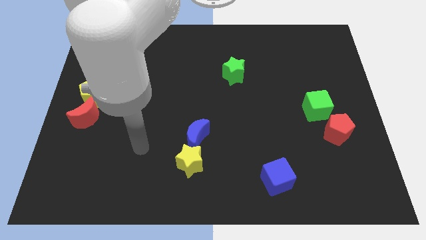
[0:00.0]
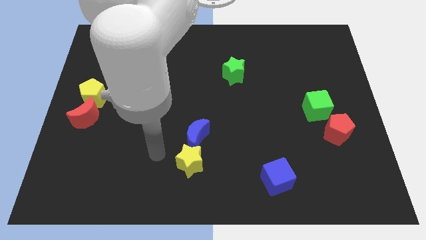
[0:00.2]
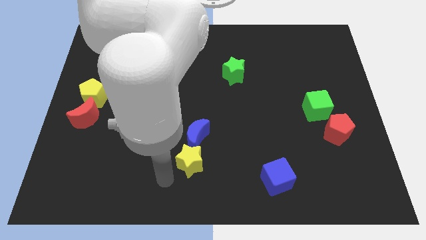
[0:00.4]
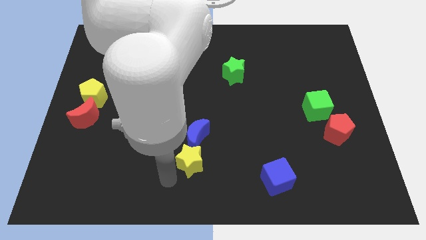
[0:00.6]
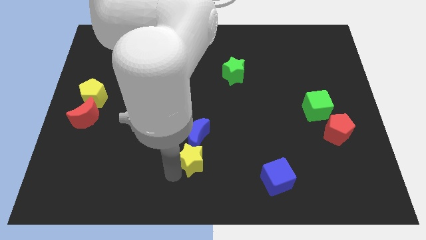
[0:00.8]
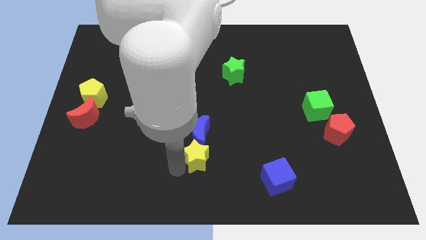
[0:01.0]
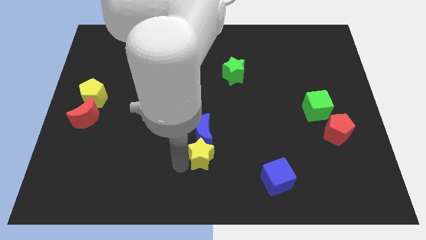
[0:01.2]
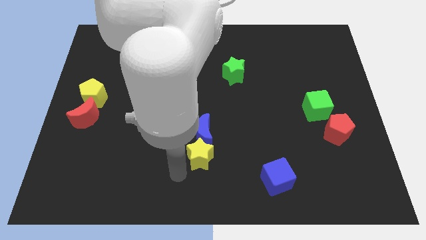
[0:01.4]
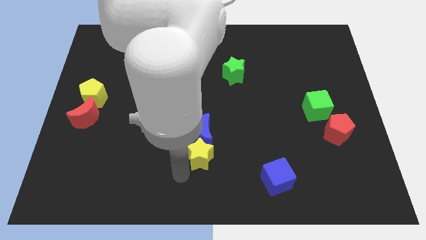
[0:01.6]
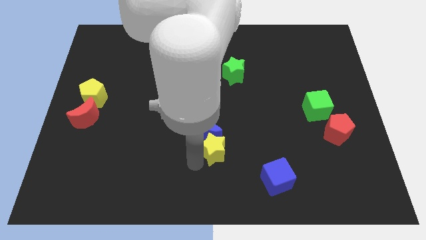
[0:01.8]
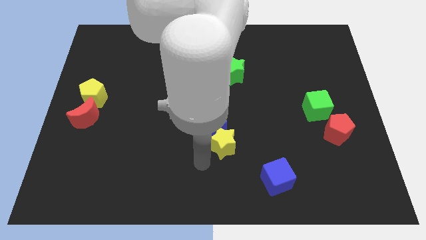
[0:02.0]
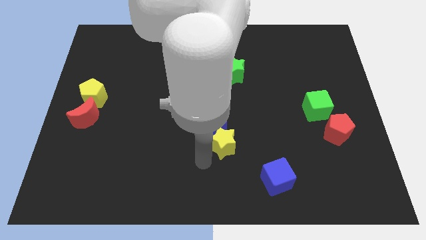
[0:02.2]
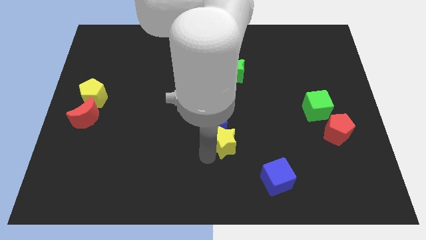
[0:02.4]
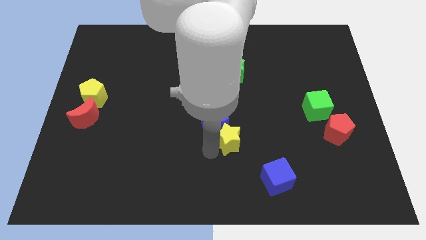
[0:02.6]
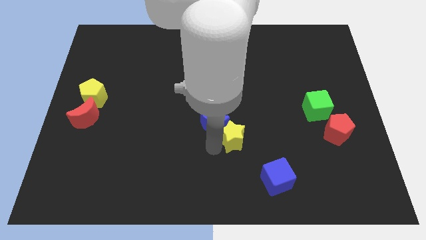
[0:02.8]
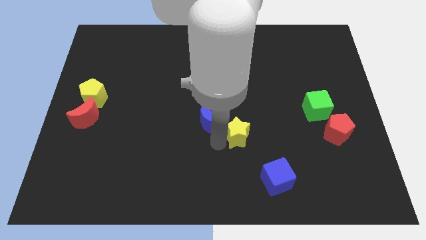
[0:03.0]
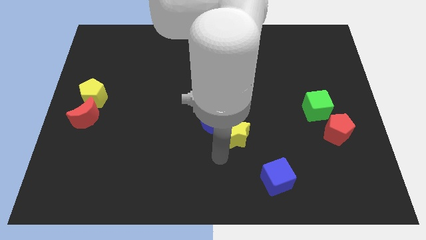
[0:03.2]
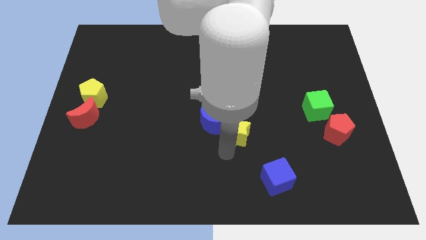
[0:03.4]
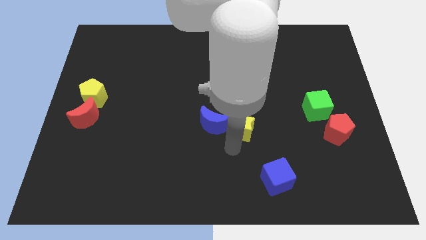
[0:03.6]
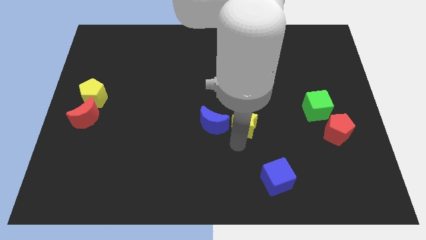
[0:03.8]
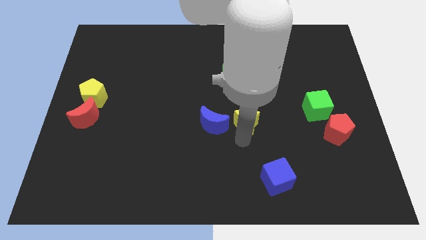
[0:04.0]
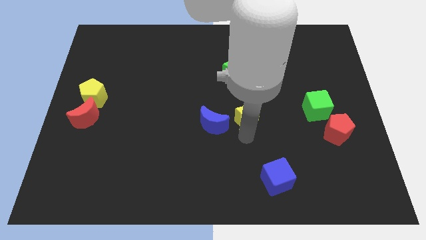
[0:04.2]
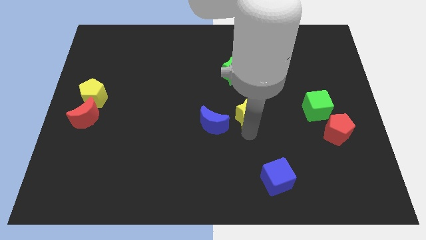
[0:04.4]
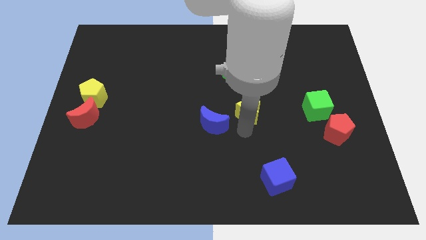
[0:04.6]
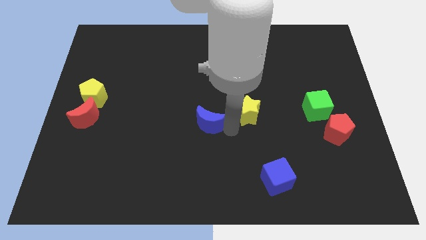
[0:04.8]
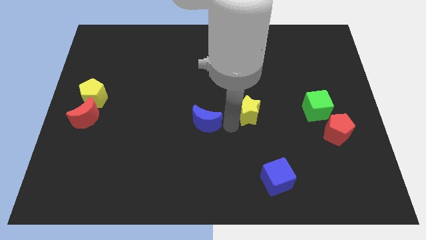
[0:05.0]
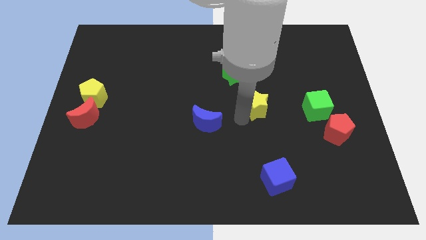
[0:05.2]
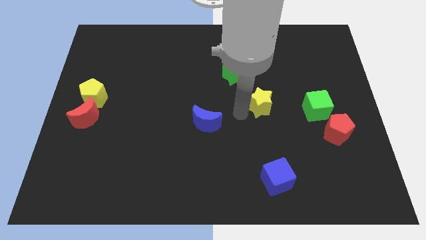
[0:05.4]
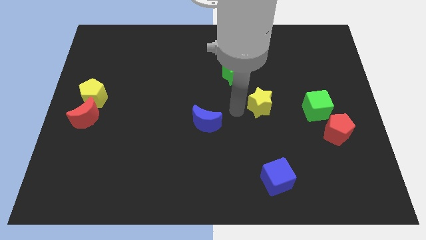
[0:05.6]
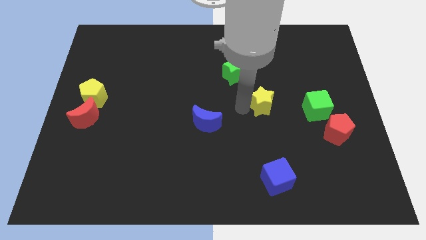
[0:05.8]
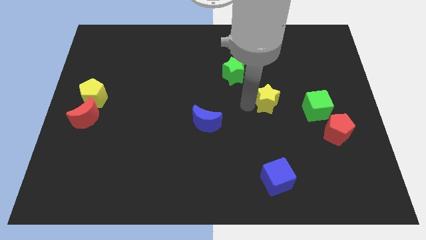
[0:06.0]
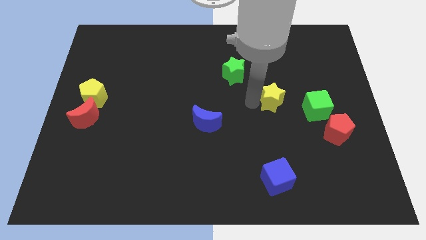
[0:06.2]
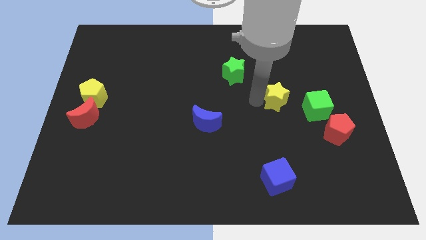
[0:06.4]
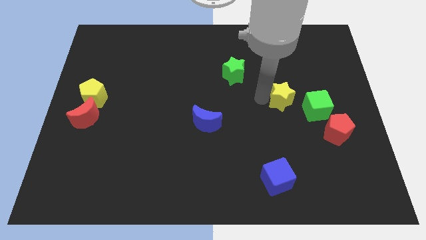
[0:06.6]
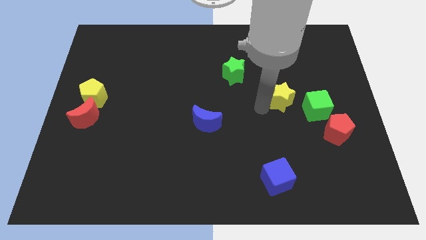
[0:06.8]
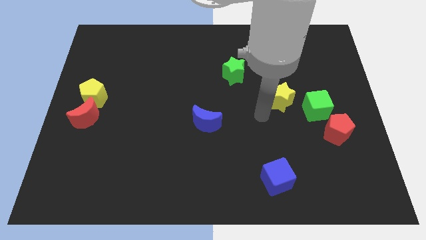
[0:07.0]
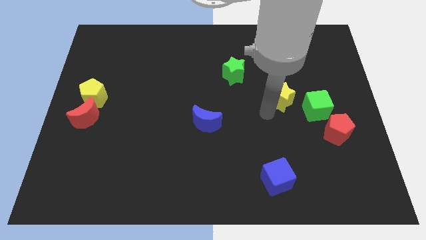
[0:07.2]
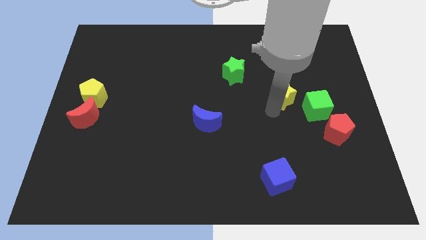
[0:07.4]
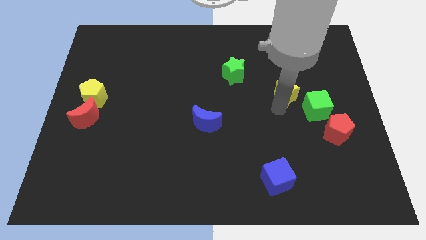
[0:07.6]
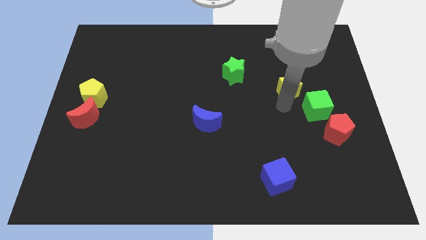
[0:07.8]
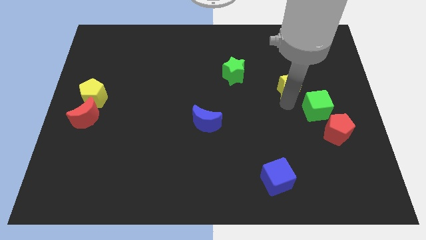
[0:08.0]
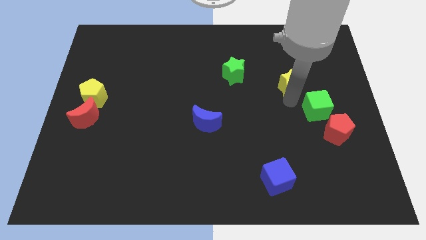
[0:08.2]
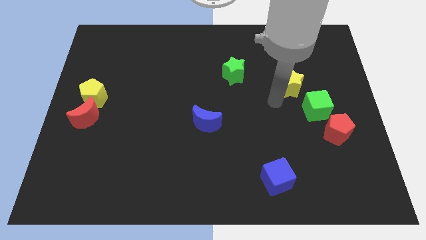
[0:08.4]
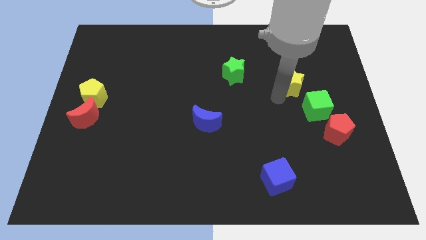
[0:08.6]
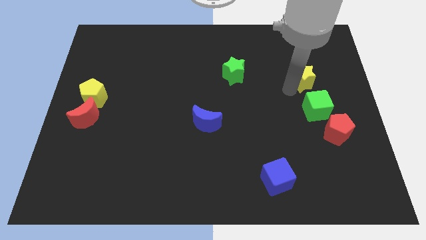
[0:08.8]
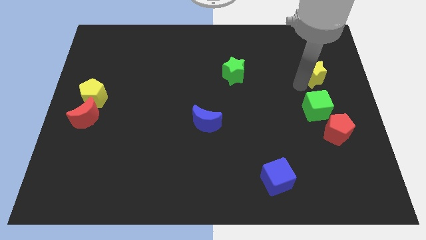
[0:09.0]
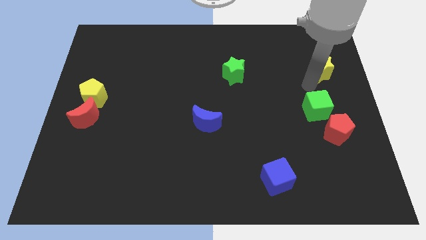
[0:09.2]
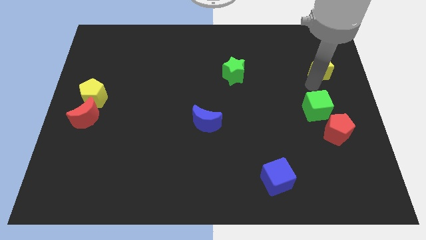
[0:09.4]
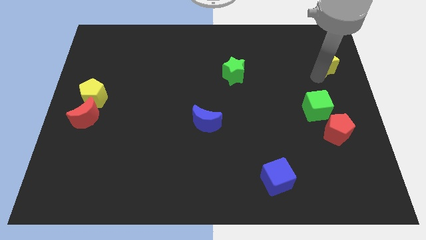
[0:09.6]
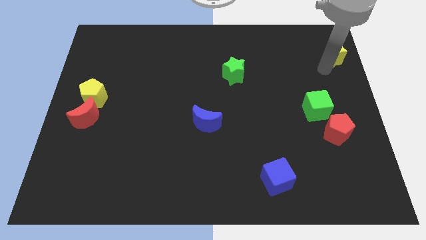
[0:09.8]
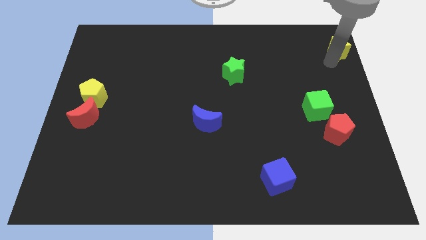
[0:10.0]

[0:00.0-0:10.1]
move the yellow star to the top right of the board

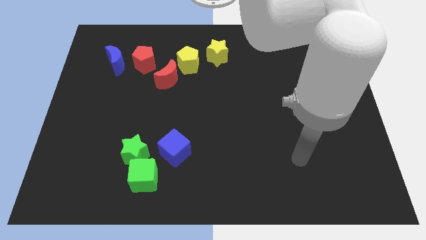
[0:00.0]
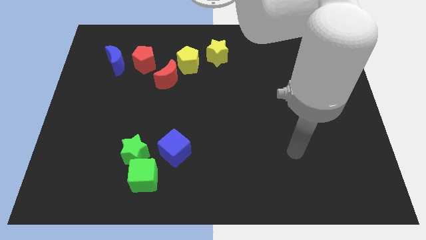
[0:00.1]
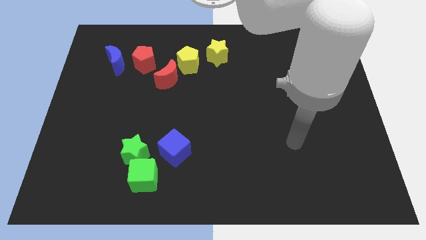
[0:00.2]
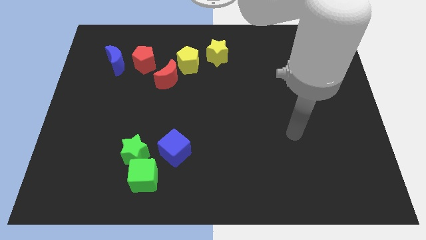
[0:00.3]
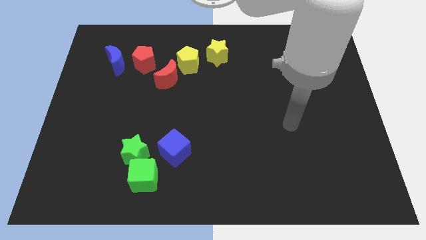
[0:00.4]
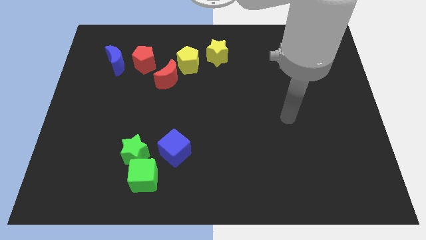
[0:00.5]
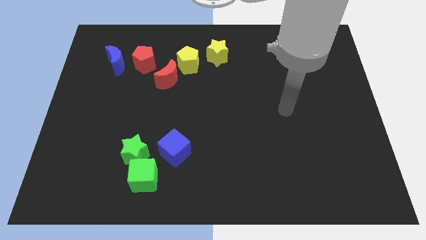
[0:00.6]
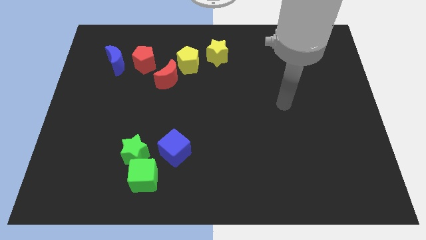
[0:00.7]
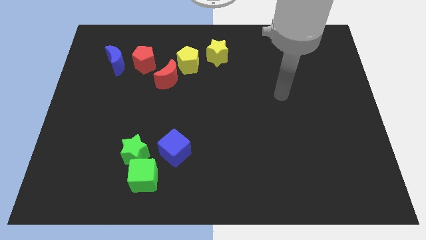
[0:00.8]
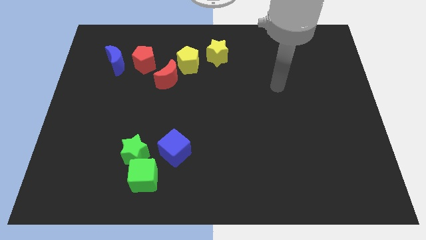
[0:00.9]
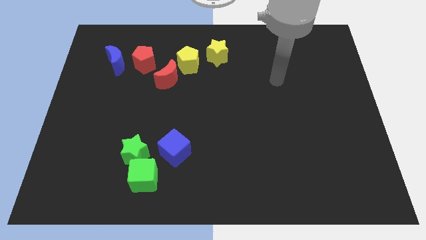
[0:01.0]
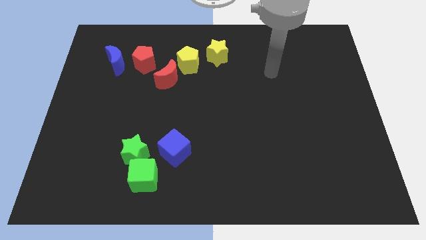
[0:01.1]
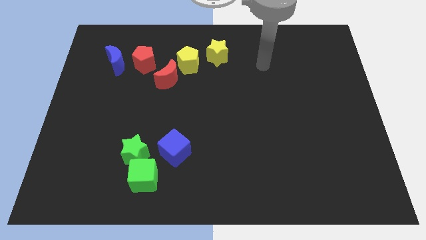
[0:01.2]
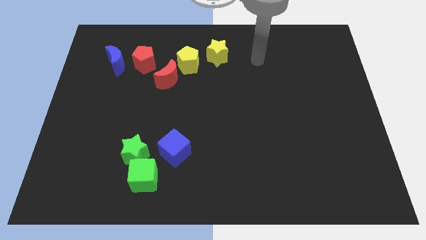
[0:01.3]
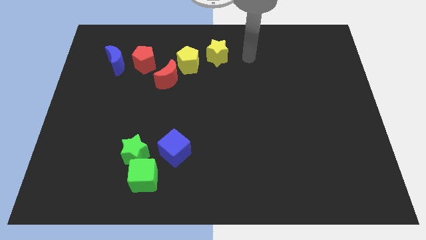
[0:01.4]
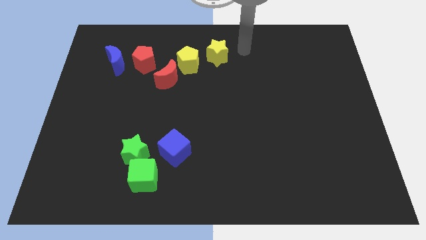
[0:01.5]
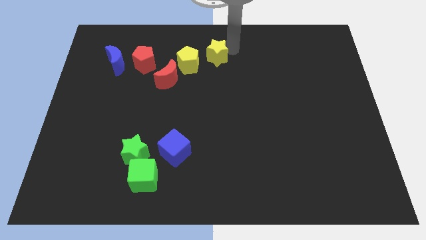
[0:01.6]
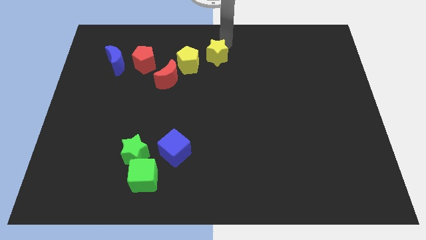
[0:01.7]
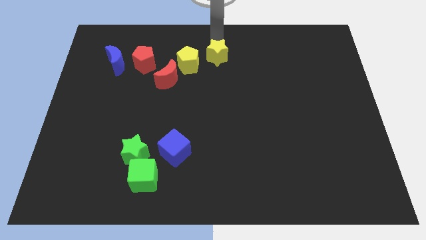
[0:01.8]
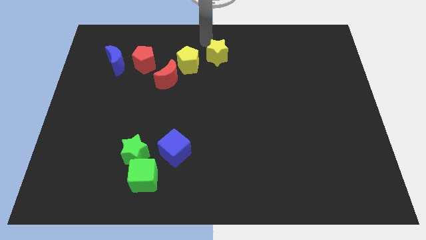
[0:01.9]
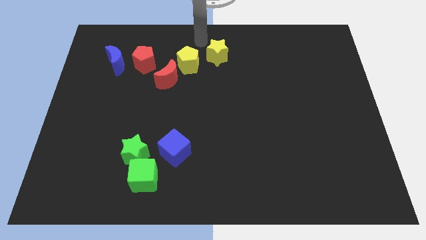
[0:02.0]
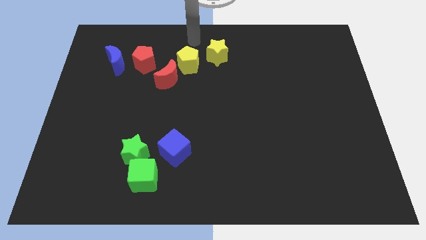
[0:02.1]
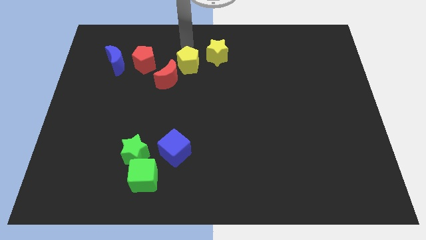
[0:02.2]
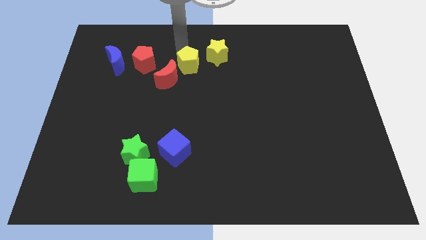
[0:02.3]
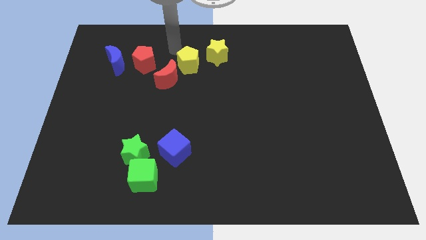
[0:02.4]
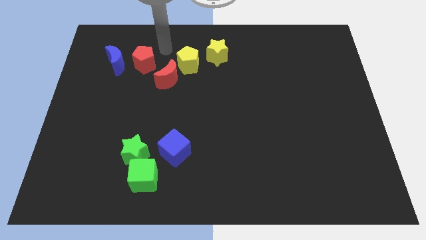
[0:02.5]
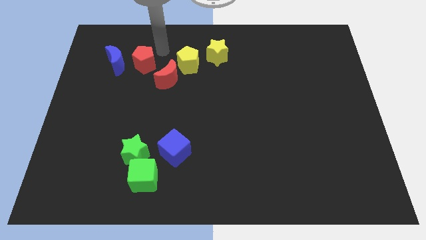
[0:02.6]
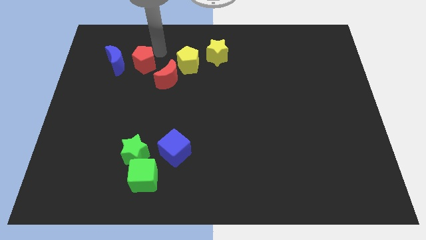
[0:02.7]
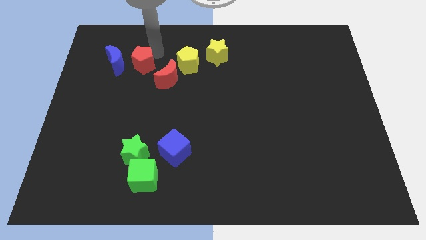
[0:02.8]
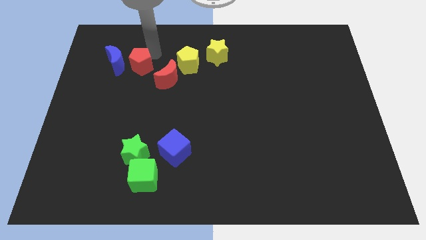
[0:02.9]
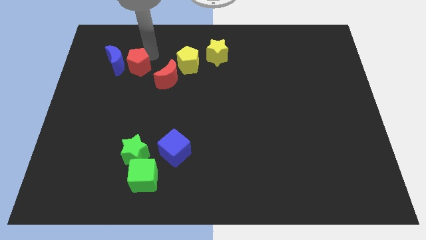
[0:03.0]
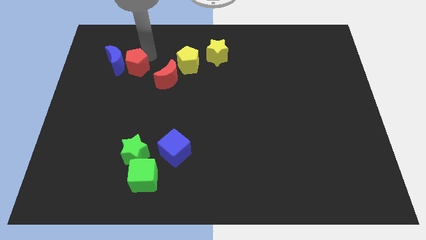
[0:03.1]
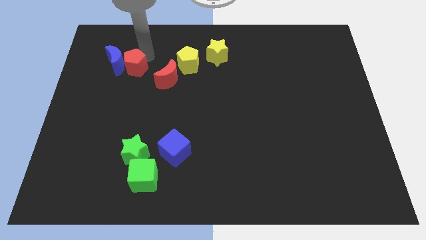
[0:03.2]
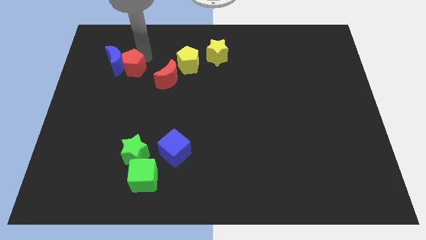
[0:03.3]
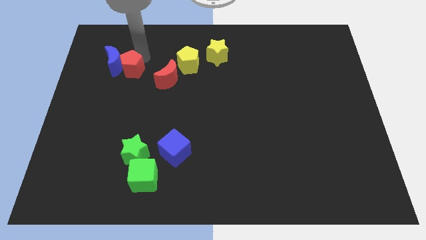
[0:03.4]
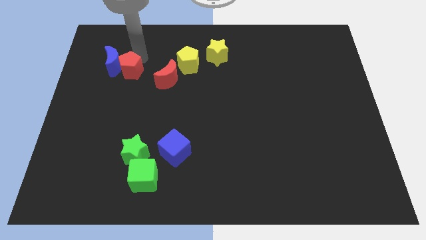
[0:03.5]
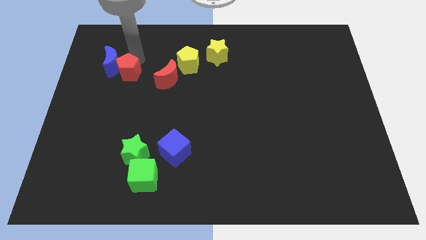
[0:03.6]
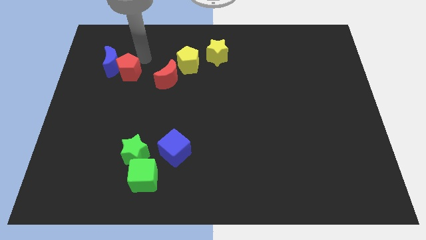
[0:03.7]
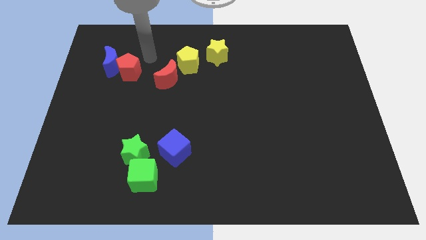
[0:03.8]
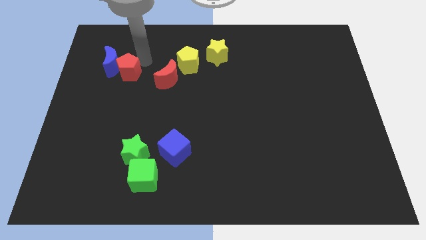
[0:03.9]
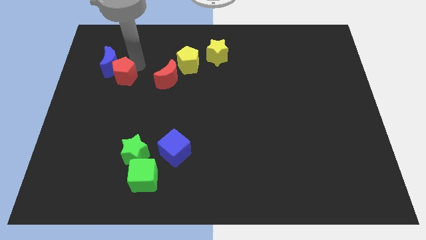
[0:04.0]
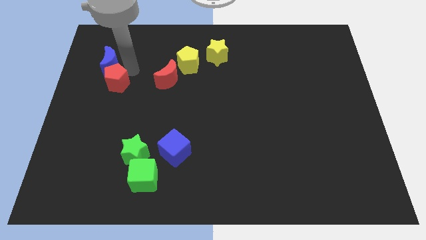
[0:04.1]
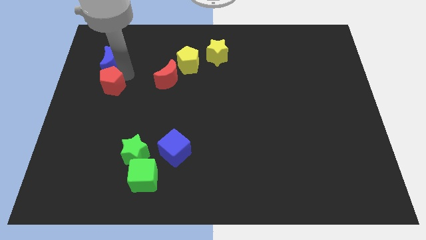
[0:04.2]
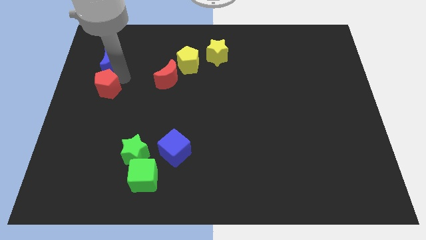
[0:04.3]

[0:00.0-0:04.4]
move the red pentagon to the left side of the board
